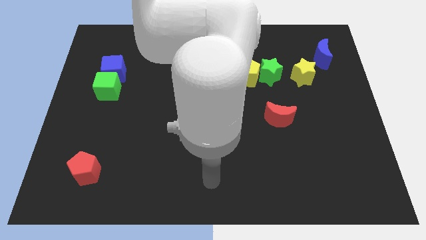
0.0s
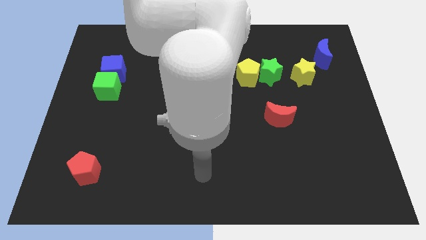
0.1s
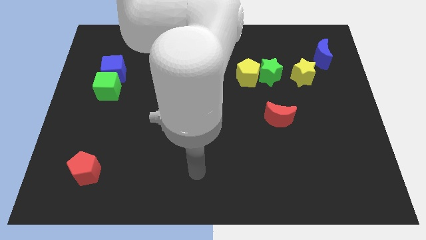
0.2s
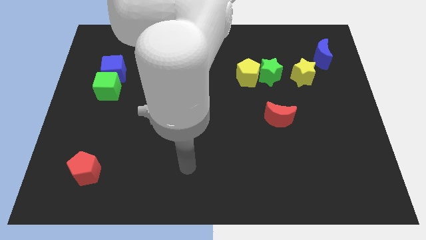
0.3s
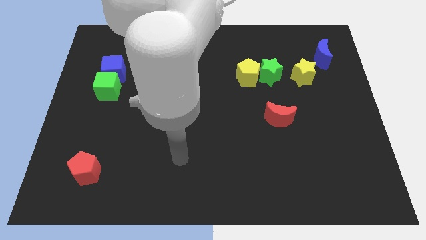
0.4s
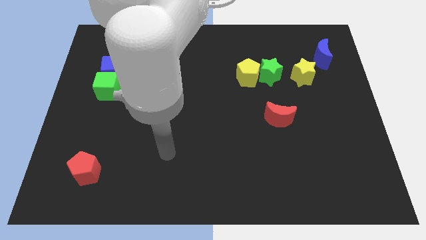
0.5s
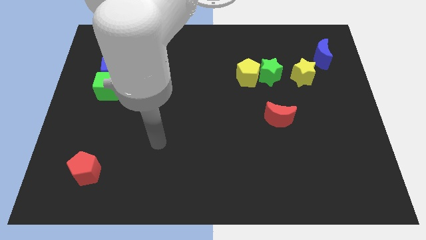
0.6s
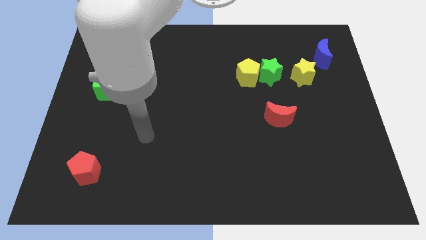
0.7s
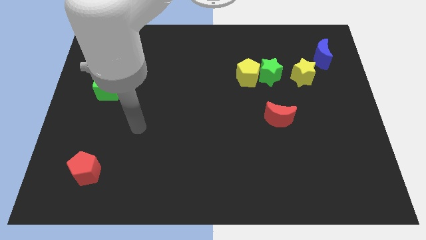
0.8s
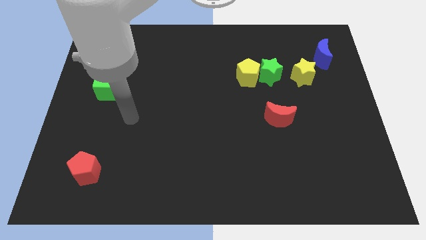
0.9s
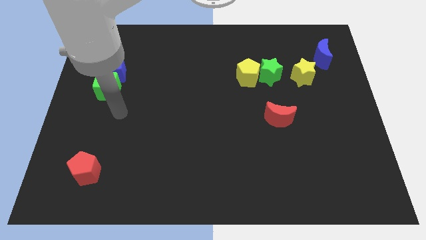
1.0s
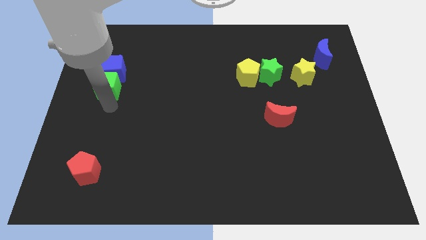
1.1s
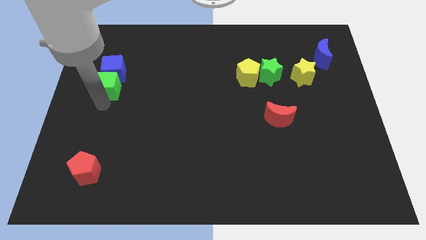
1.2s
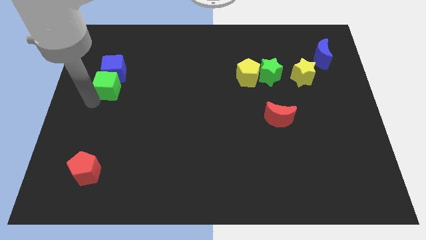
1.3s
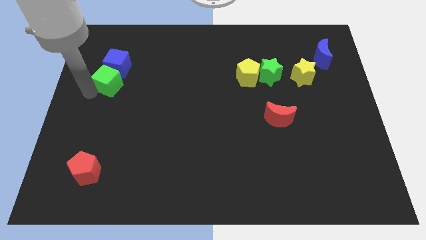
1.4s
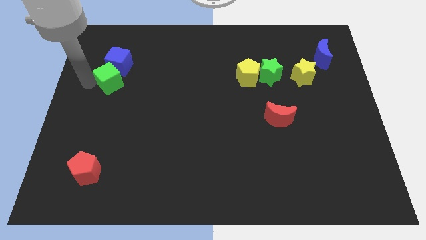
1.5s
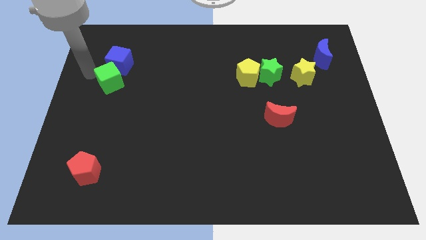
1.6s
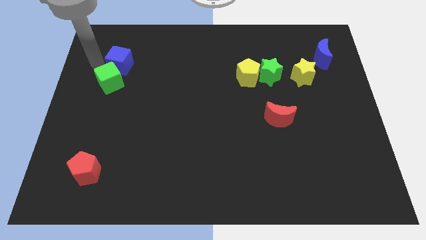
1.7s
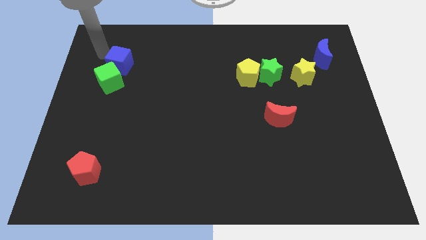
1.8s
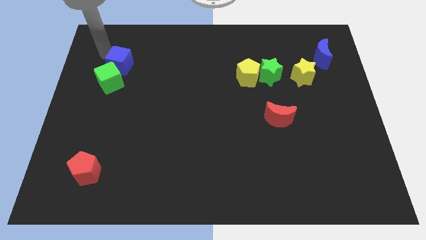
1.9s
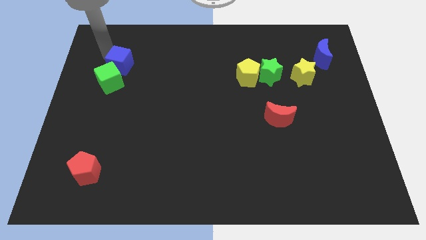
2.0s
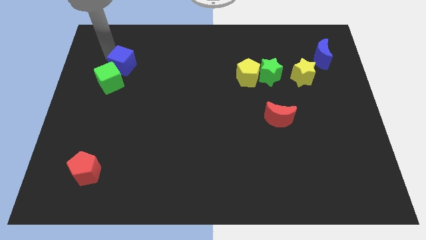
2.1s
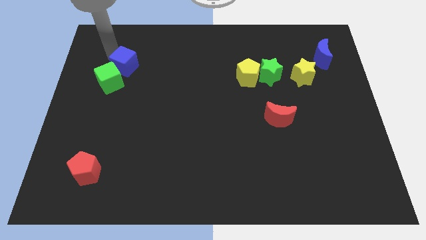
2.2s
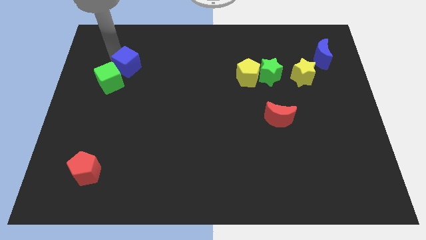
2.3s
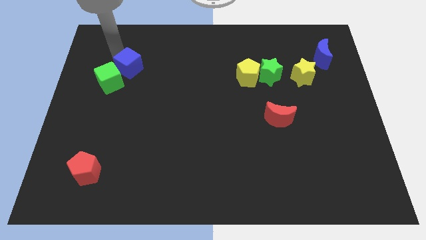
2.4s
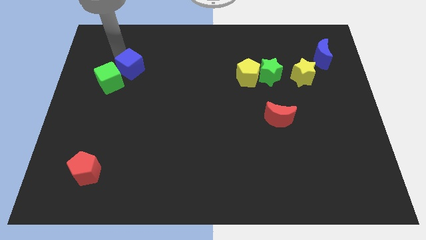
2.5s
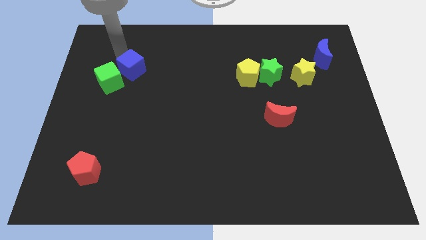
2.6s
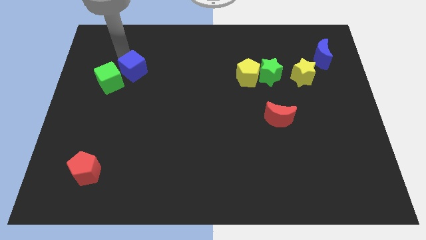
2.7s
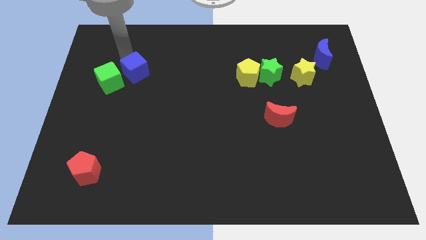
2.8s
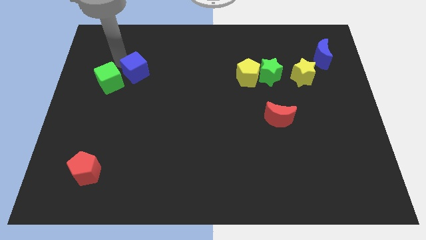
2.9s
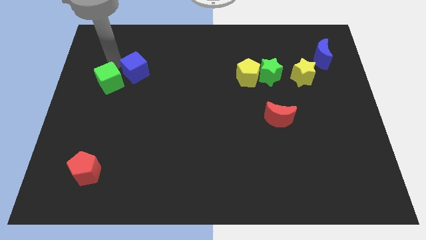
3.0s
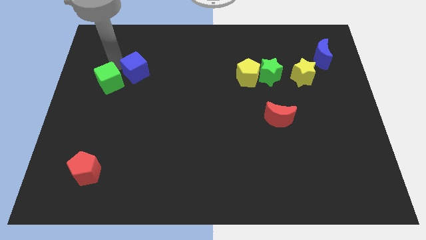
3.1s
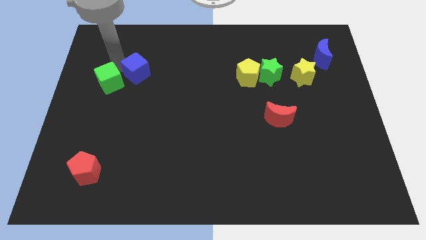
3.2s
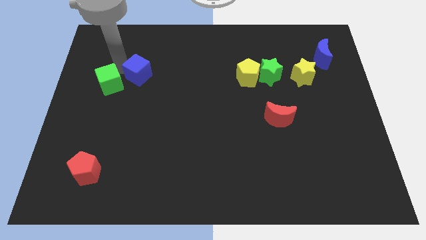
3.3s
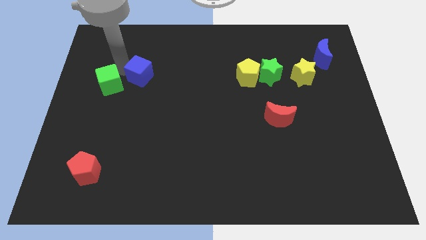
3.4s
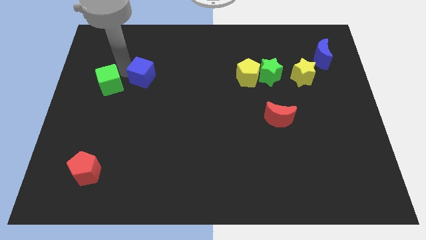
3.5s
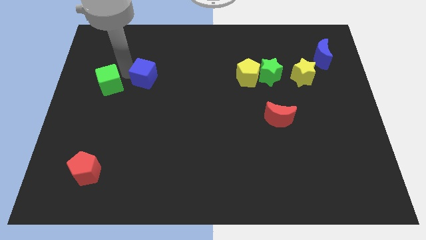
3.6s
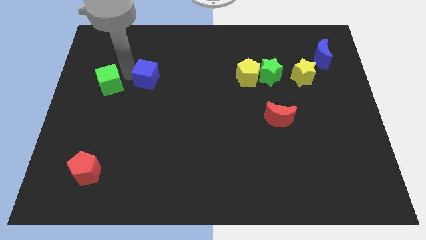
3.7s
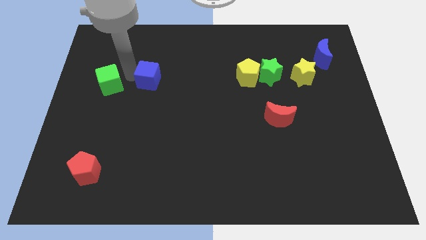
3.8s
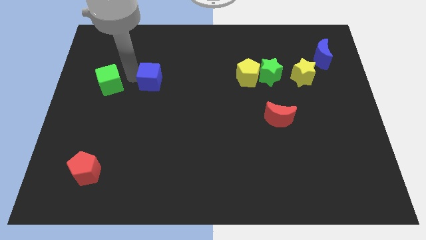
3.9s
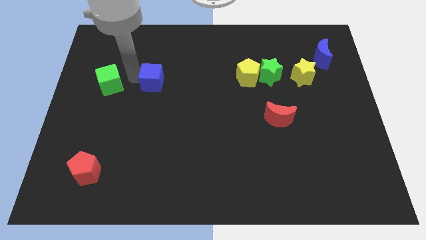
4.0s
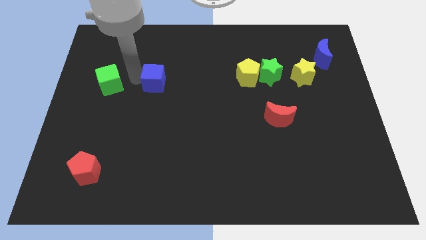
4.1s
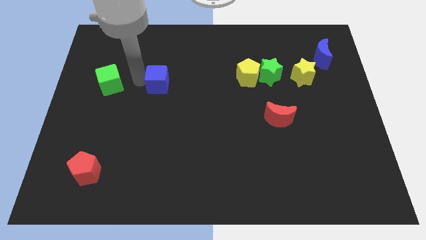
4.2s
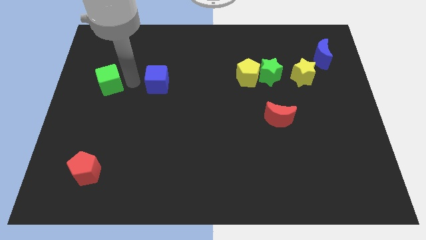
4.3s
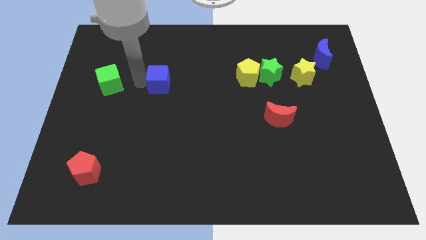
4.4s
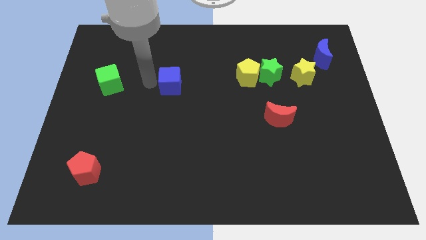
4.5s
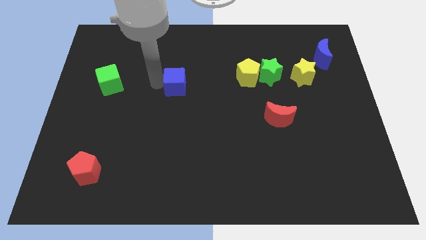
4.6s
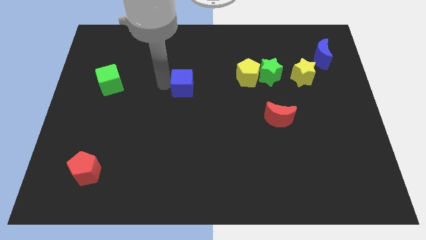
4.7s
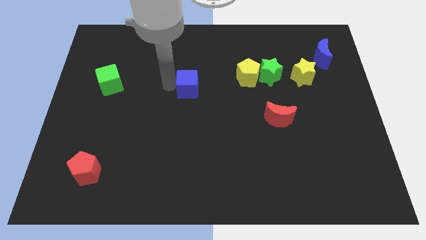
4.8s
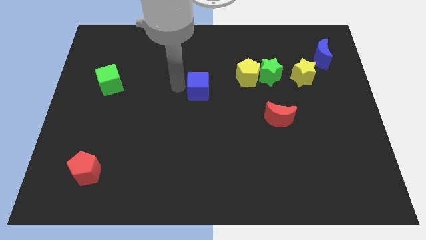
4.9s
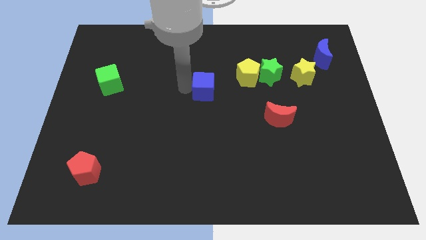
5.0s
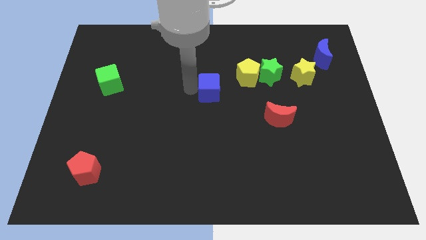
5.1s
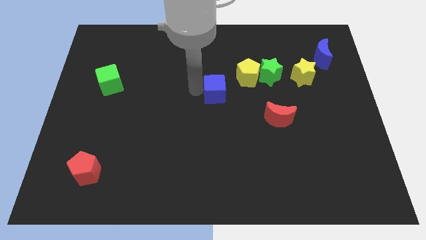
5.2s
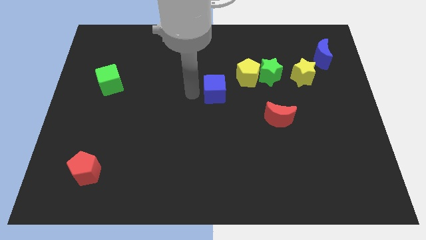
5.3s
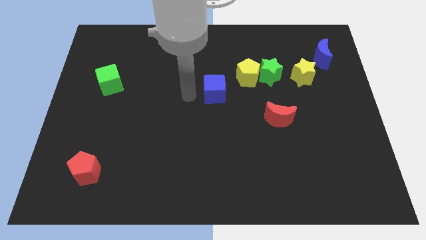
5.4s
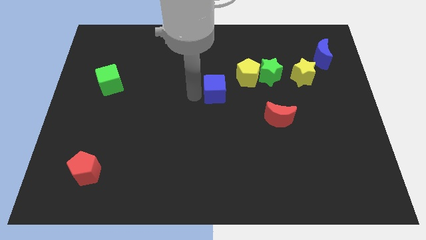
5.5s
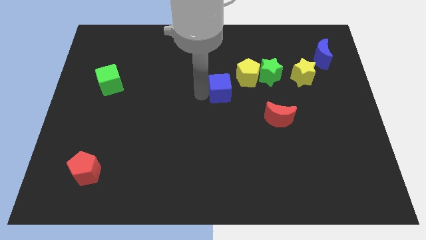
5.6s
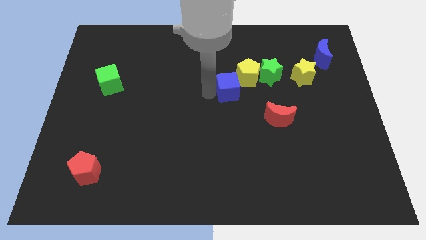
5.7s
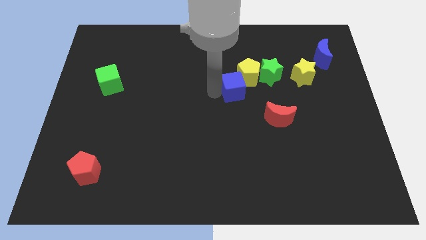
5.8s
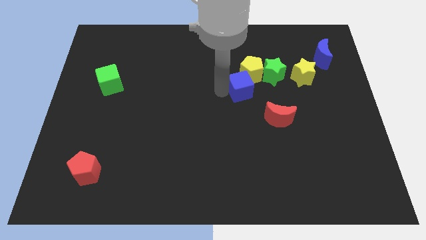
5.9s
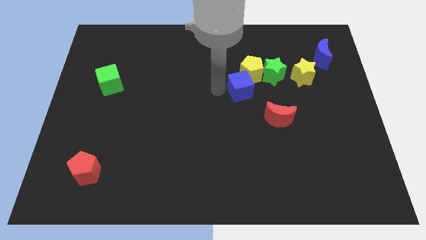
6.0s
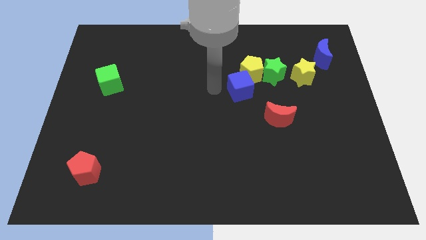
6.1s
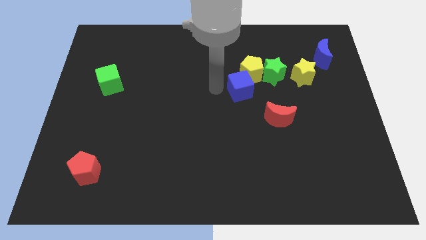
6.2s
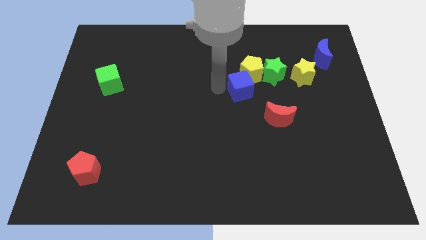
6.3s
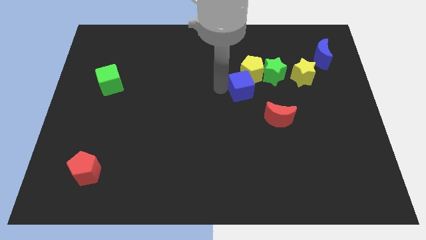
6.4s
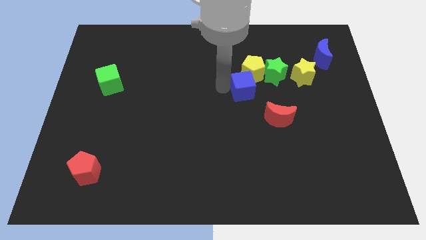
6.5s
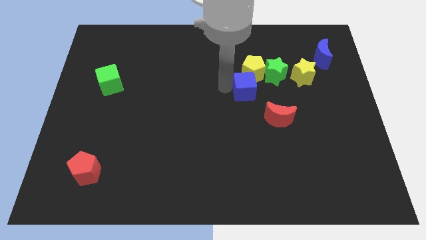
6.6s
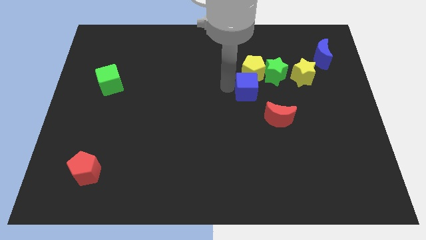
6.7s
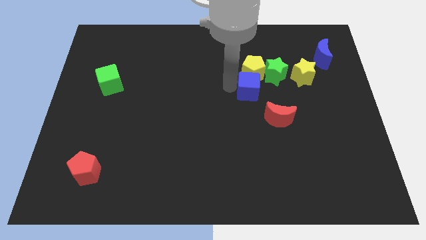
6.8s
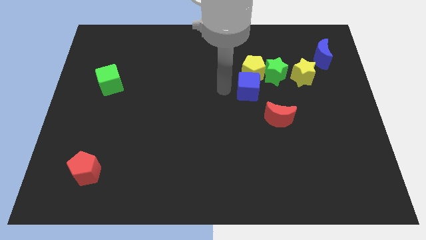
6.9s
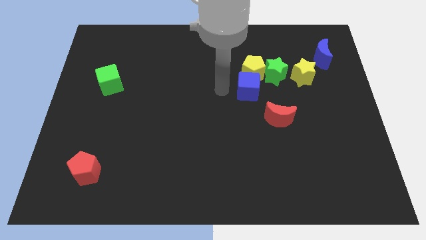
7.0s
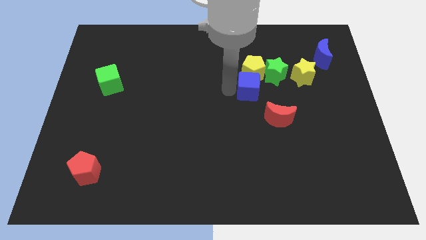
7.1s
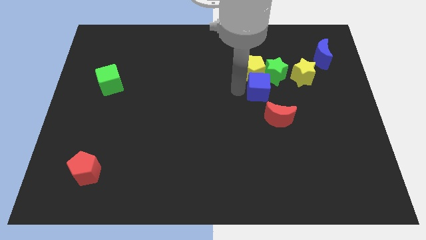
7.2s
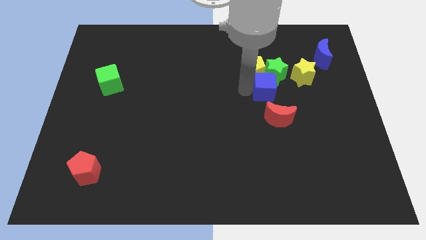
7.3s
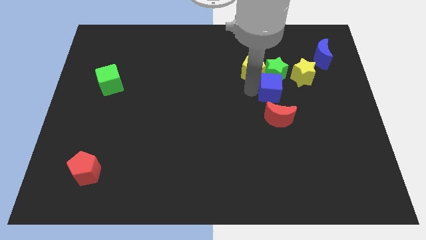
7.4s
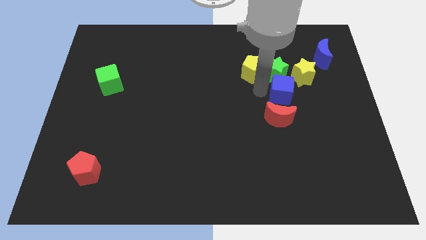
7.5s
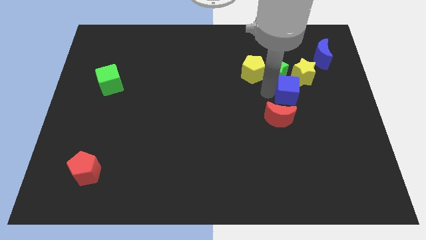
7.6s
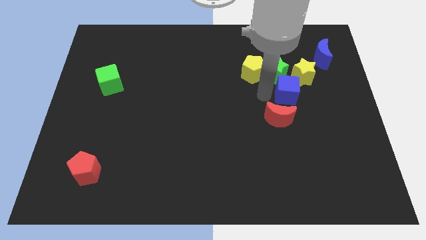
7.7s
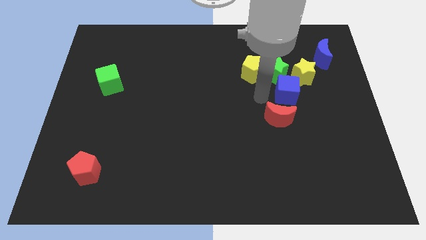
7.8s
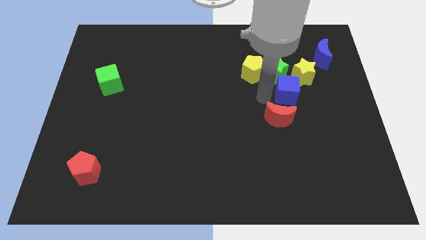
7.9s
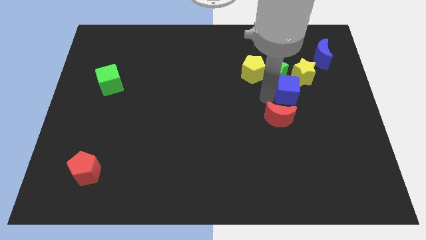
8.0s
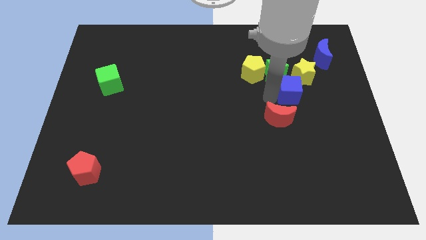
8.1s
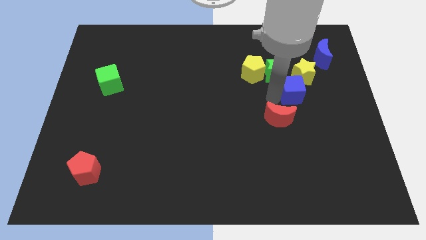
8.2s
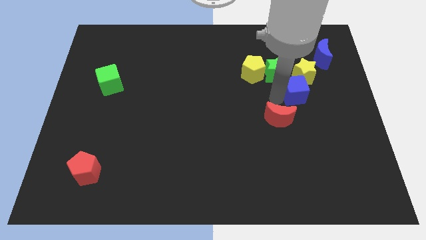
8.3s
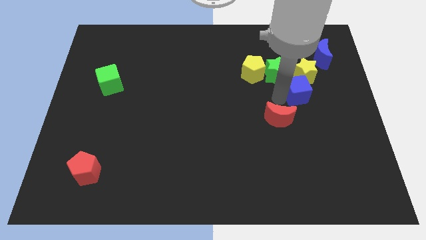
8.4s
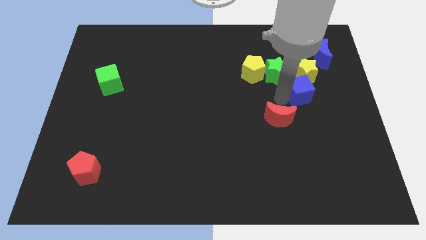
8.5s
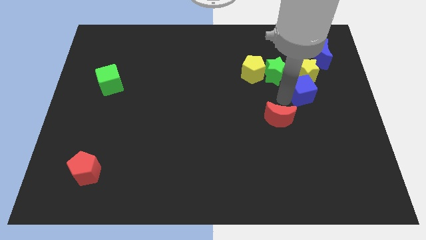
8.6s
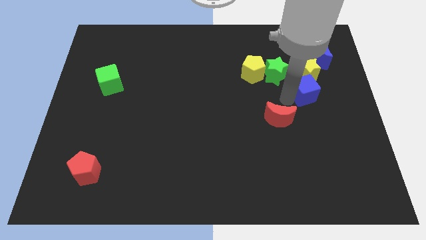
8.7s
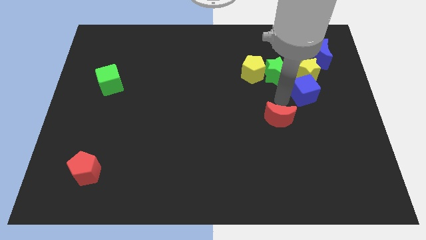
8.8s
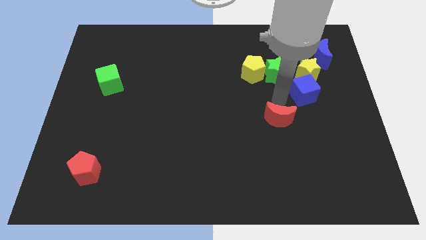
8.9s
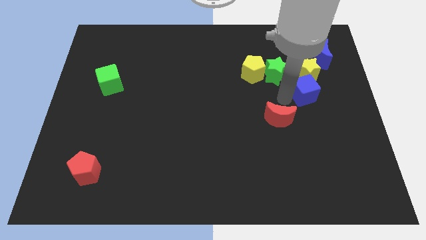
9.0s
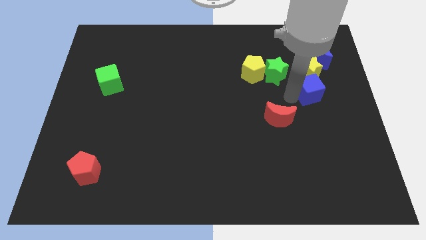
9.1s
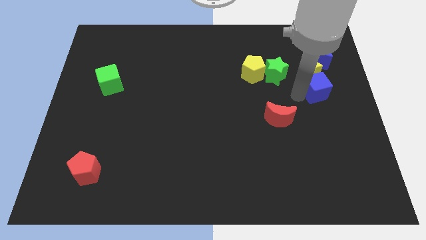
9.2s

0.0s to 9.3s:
move the blue cube to the bottom side of the blue moon
